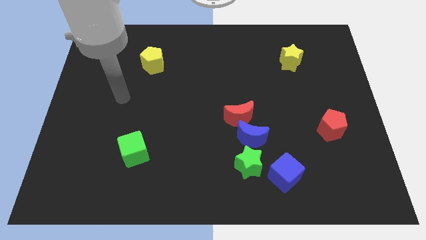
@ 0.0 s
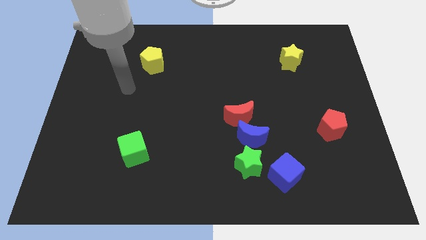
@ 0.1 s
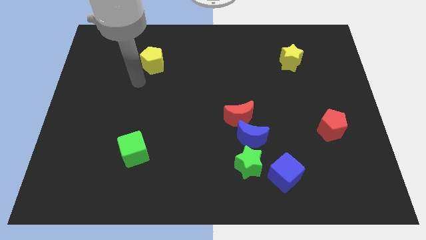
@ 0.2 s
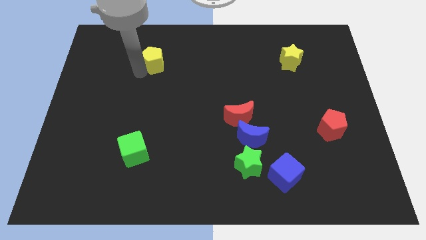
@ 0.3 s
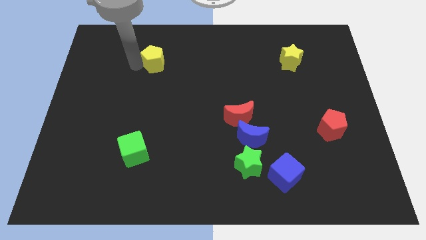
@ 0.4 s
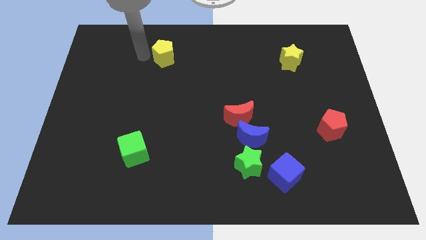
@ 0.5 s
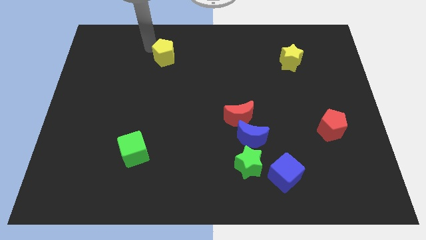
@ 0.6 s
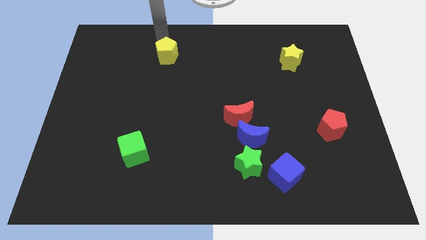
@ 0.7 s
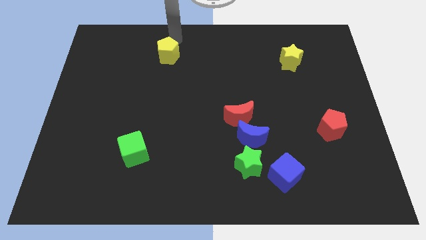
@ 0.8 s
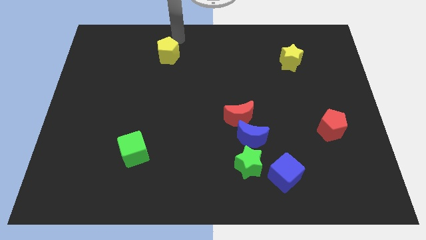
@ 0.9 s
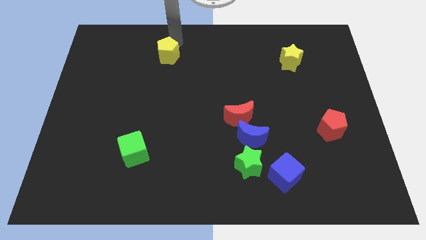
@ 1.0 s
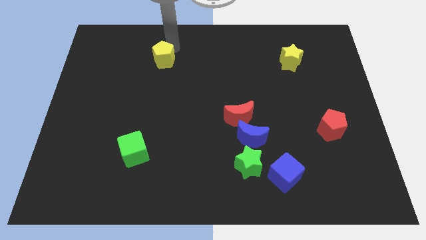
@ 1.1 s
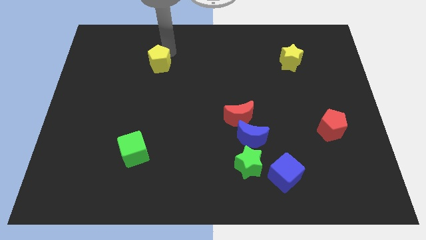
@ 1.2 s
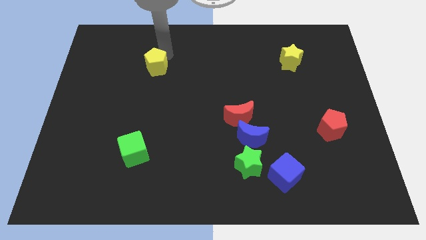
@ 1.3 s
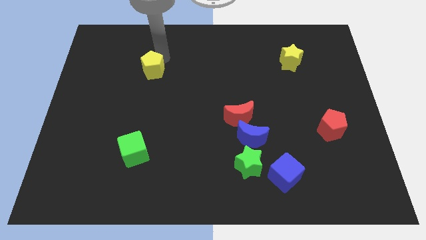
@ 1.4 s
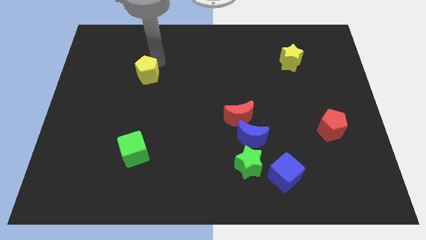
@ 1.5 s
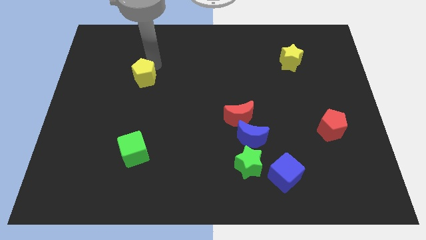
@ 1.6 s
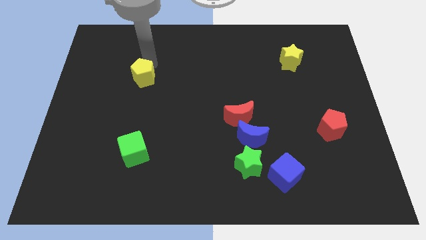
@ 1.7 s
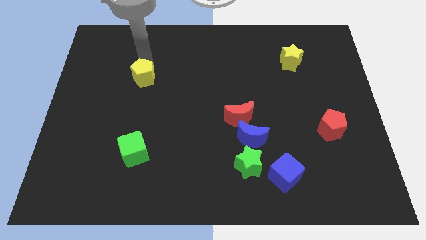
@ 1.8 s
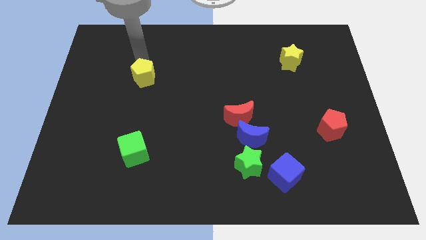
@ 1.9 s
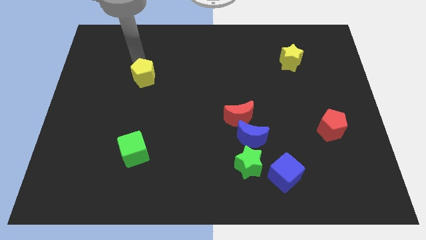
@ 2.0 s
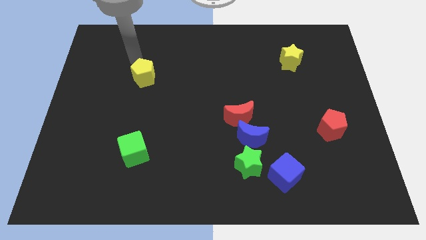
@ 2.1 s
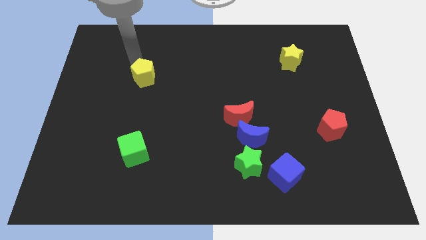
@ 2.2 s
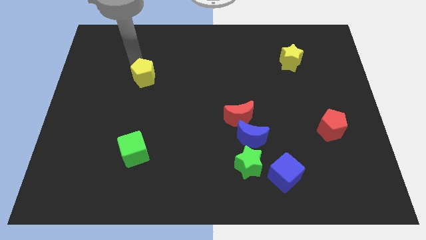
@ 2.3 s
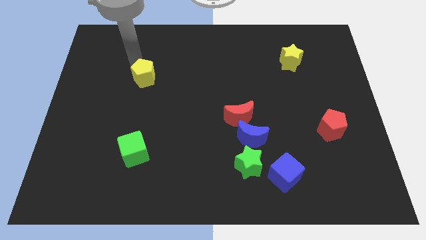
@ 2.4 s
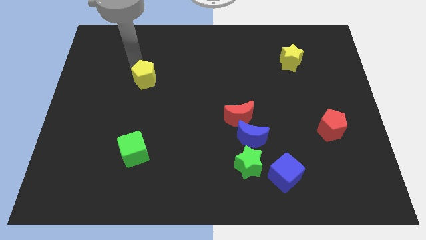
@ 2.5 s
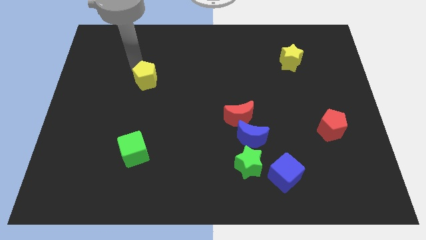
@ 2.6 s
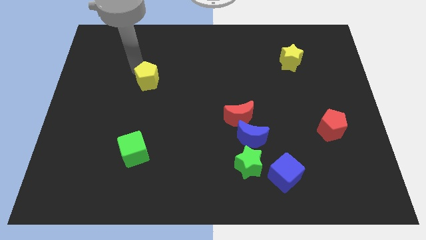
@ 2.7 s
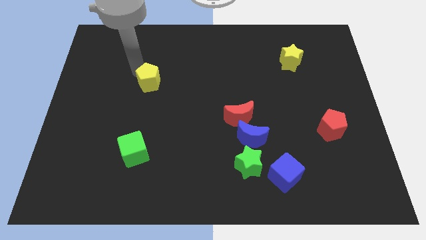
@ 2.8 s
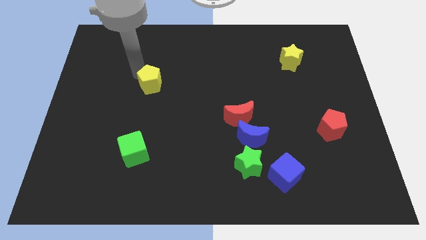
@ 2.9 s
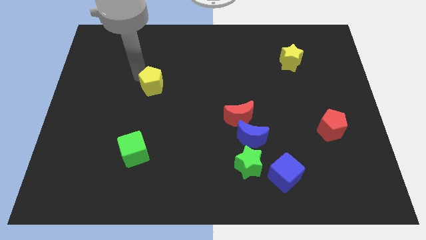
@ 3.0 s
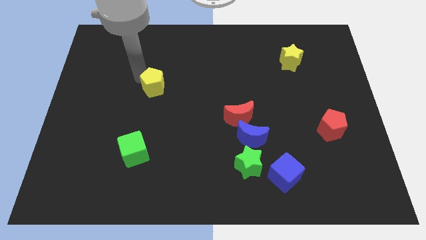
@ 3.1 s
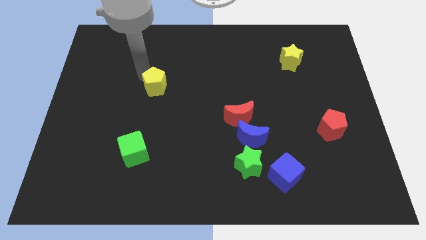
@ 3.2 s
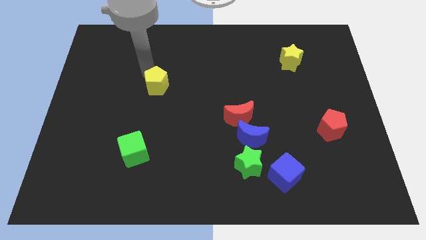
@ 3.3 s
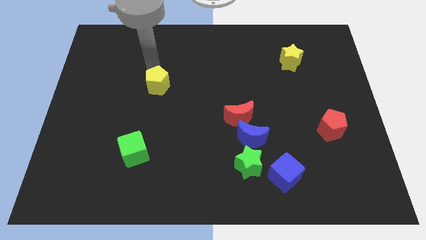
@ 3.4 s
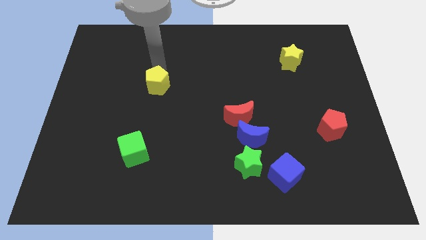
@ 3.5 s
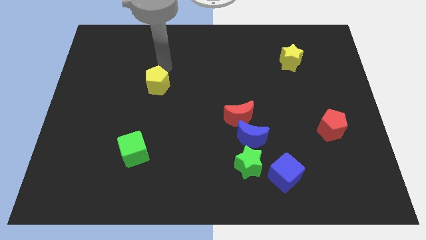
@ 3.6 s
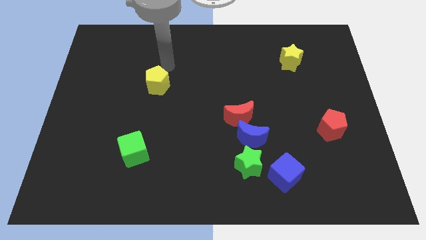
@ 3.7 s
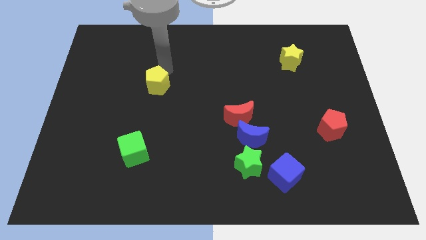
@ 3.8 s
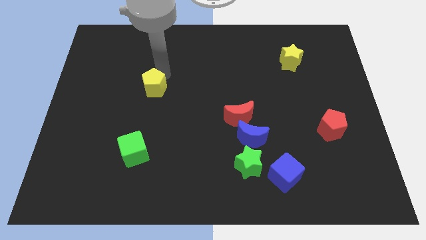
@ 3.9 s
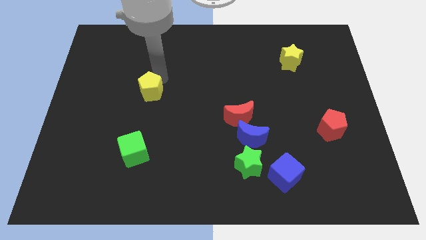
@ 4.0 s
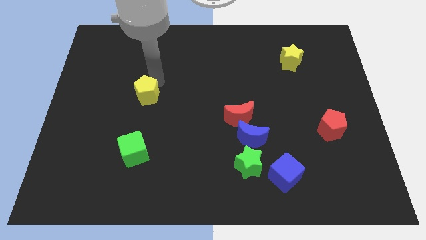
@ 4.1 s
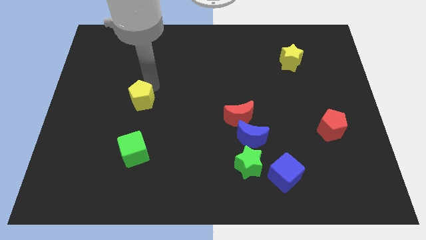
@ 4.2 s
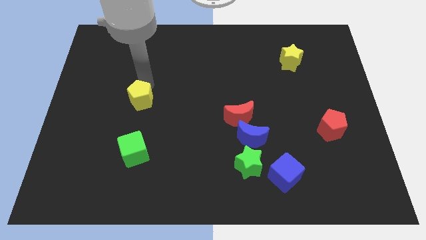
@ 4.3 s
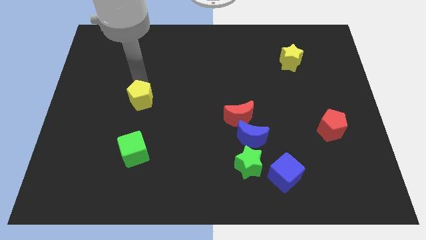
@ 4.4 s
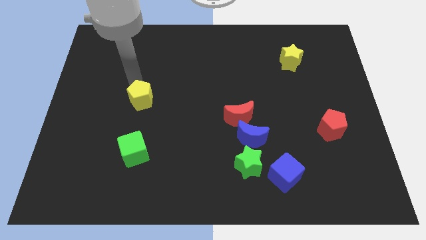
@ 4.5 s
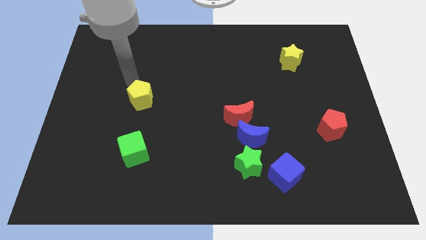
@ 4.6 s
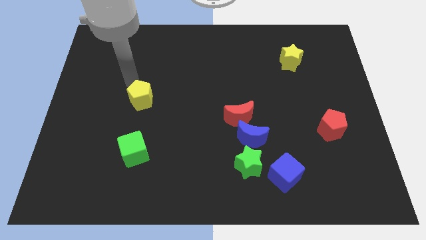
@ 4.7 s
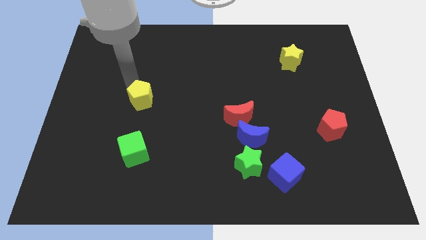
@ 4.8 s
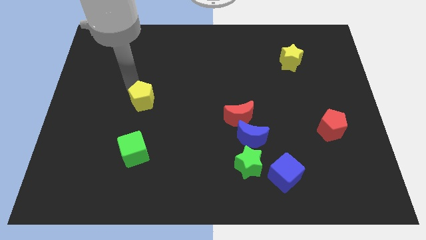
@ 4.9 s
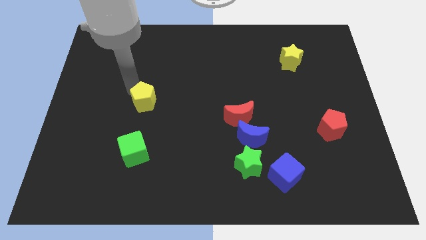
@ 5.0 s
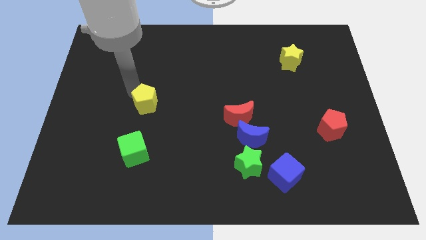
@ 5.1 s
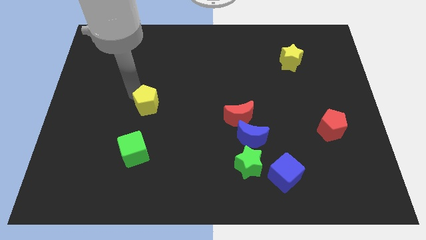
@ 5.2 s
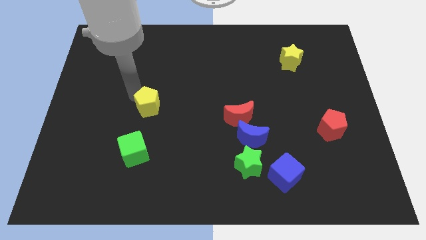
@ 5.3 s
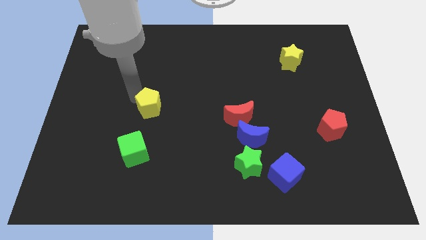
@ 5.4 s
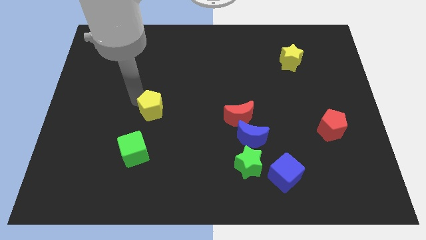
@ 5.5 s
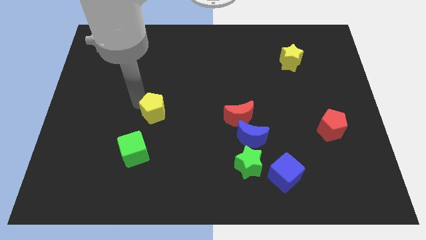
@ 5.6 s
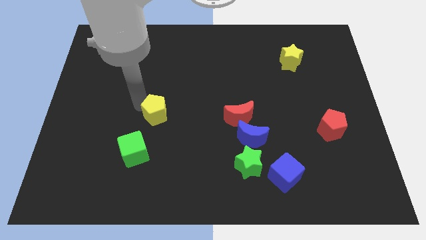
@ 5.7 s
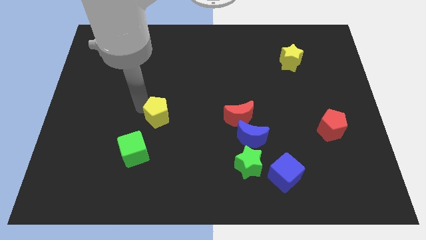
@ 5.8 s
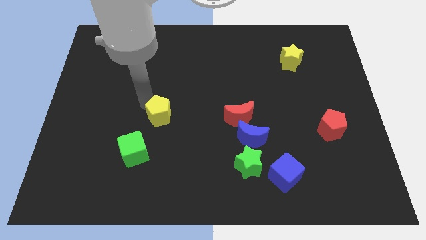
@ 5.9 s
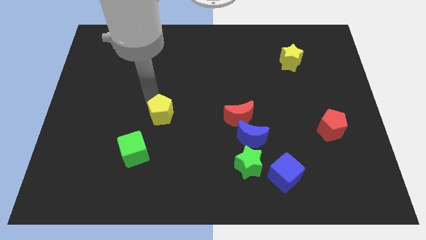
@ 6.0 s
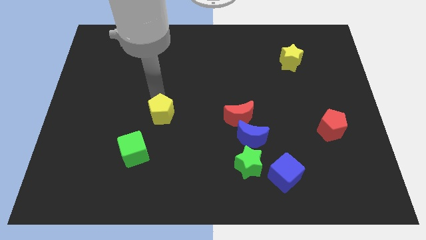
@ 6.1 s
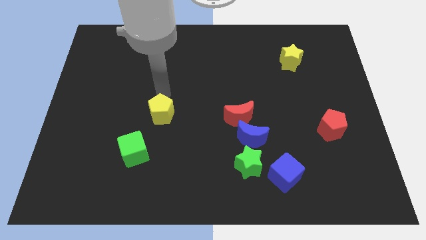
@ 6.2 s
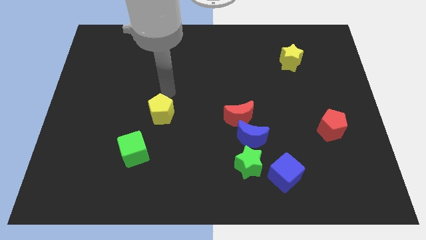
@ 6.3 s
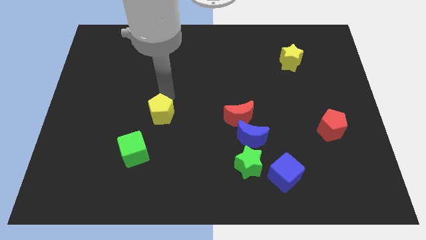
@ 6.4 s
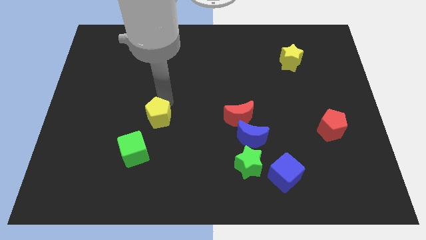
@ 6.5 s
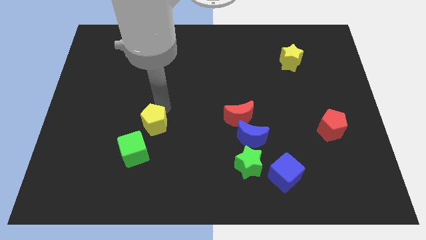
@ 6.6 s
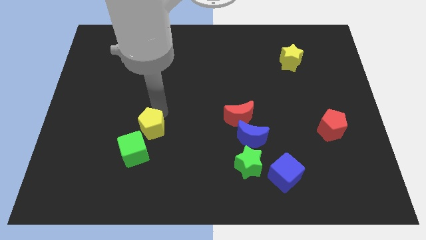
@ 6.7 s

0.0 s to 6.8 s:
push the yellow pentagon downwards

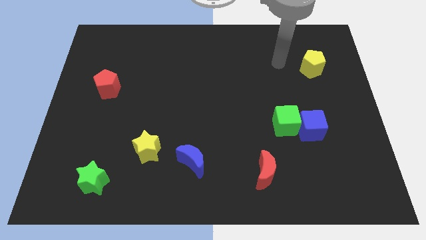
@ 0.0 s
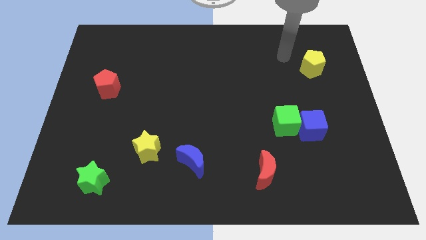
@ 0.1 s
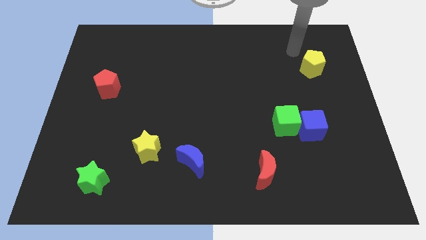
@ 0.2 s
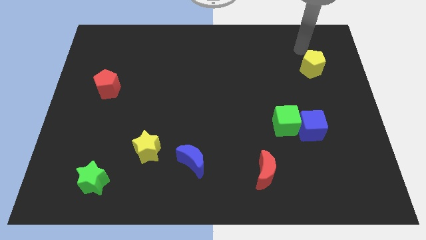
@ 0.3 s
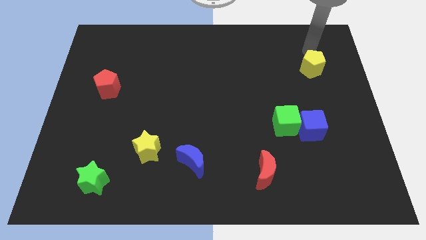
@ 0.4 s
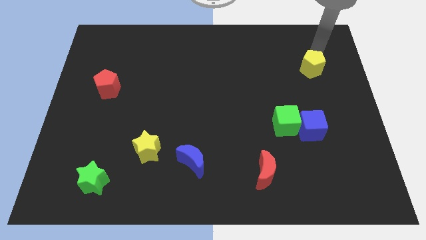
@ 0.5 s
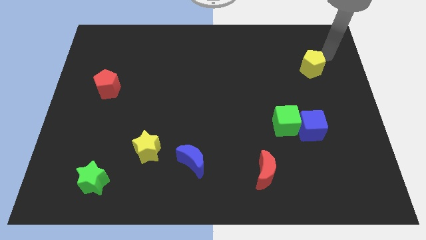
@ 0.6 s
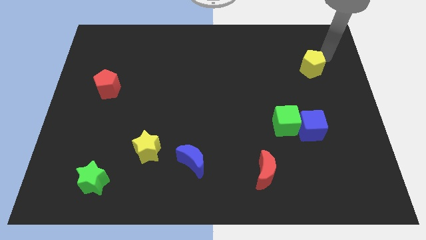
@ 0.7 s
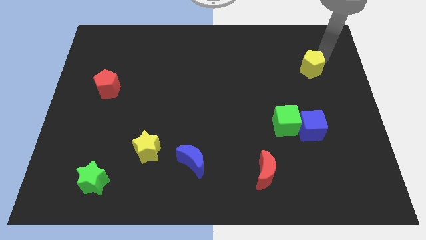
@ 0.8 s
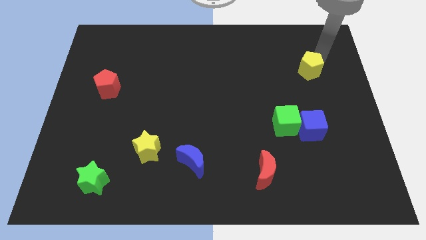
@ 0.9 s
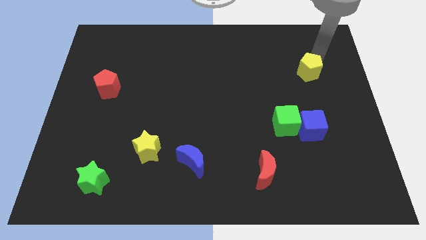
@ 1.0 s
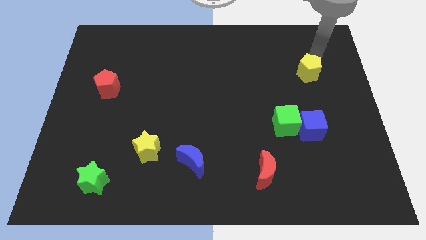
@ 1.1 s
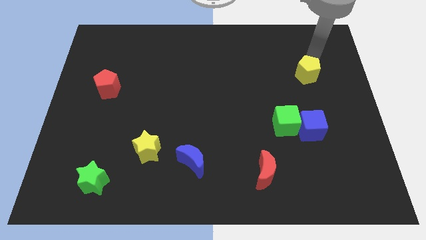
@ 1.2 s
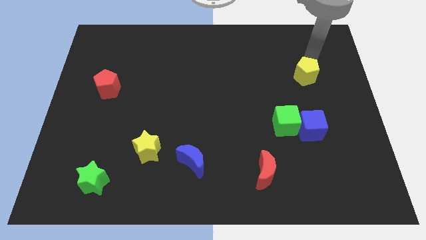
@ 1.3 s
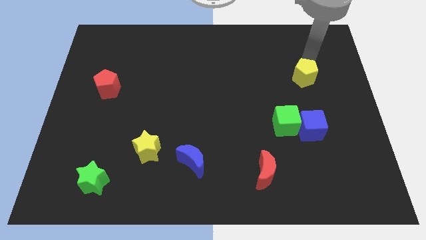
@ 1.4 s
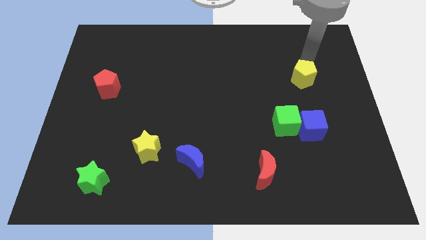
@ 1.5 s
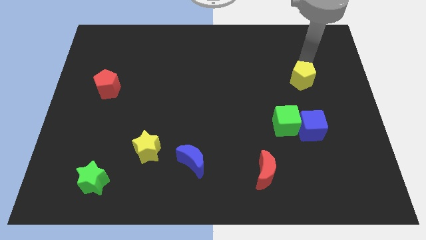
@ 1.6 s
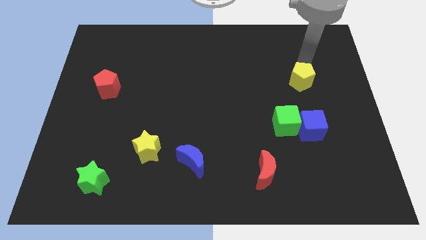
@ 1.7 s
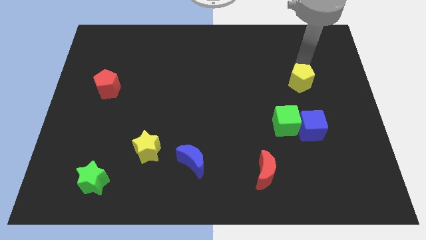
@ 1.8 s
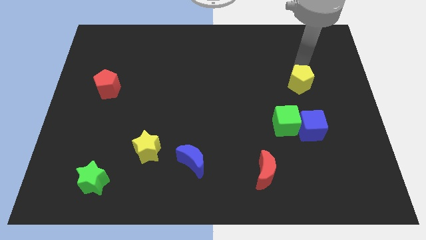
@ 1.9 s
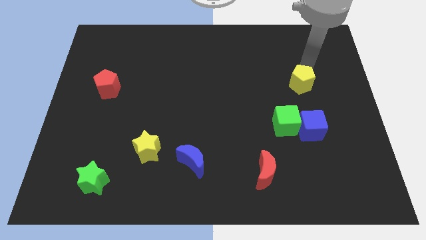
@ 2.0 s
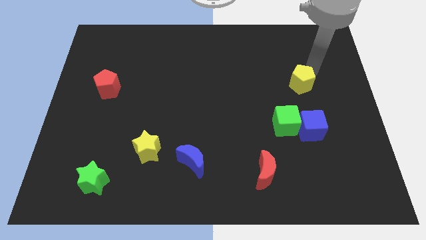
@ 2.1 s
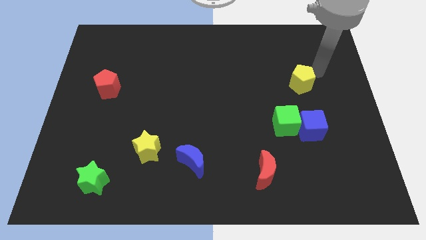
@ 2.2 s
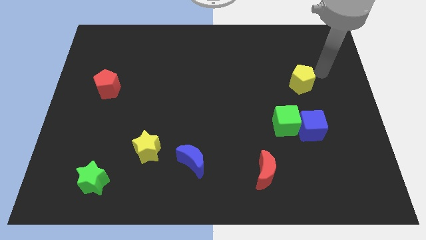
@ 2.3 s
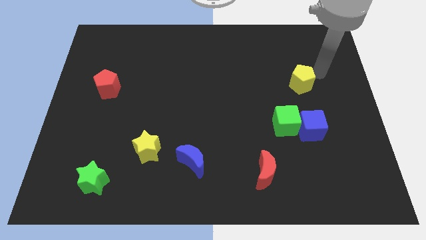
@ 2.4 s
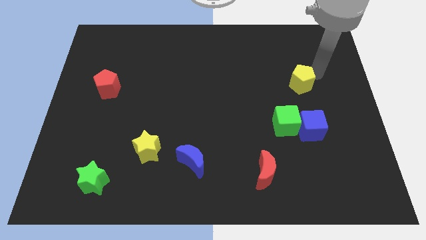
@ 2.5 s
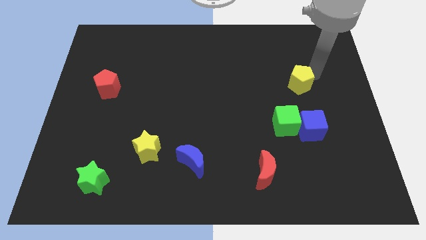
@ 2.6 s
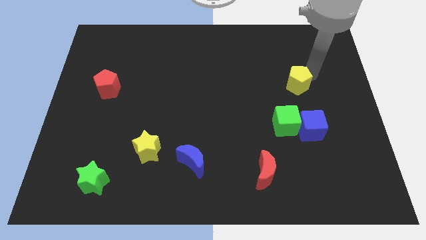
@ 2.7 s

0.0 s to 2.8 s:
slide the yellow pentagon down and to the left diagonally somewhat
